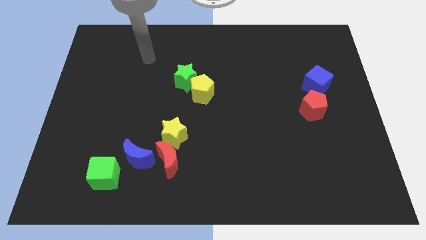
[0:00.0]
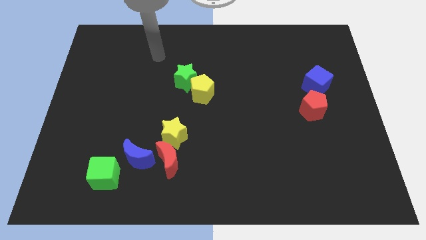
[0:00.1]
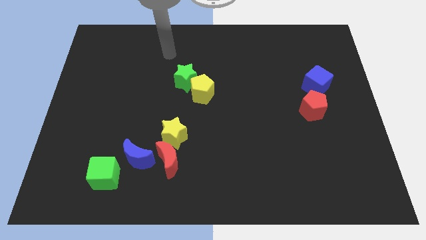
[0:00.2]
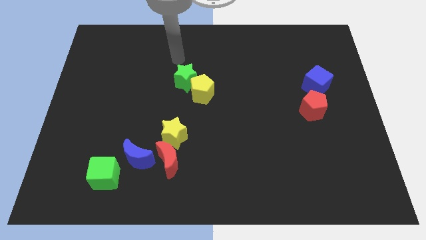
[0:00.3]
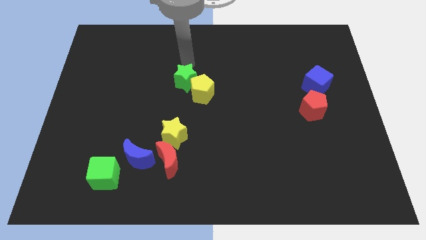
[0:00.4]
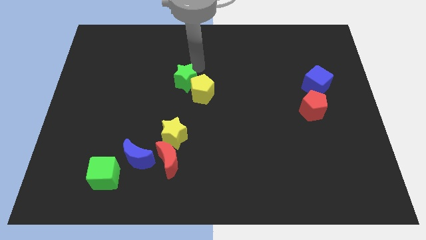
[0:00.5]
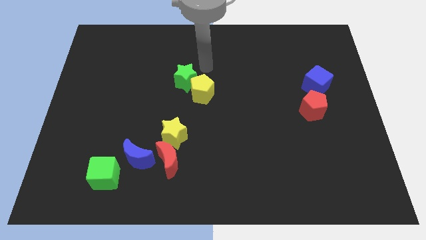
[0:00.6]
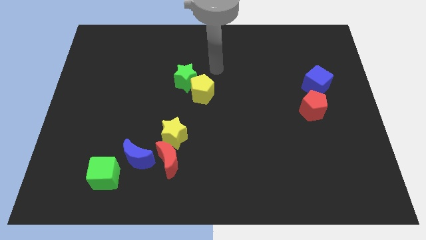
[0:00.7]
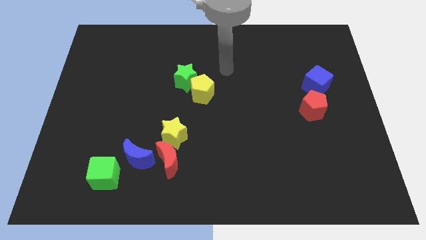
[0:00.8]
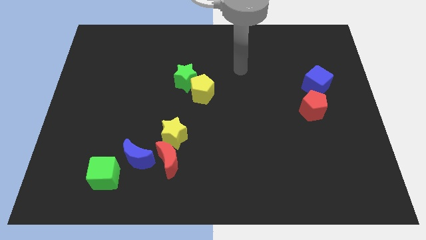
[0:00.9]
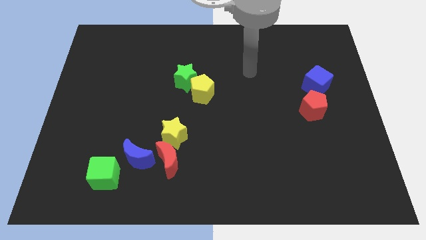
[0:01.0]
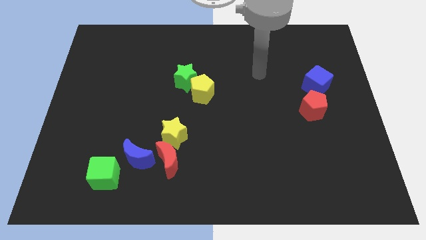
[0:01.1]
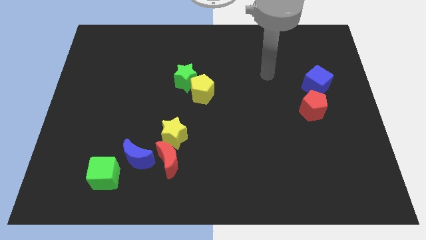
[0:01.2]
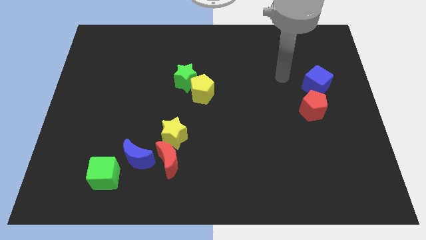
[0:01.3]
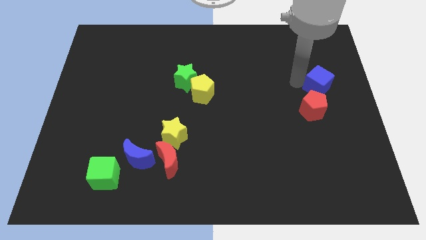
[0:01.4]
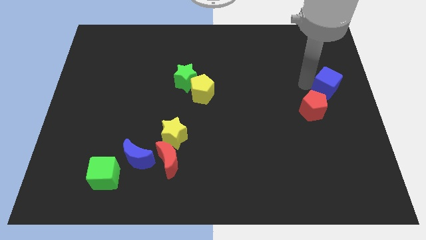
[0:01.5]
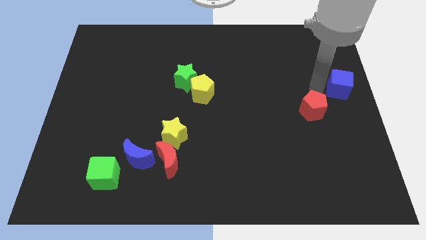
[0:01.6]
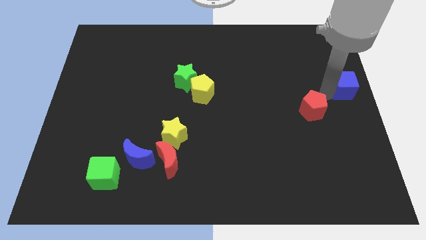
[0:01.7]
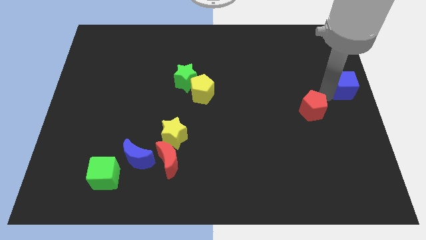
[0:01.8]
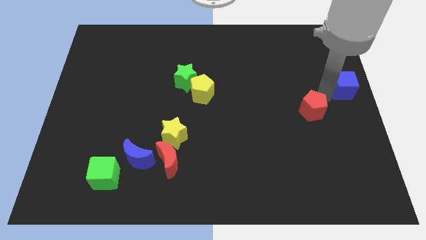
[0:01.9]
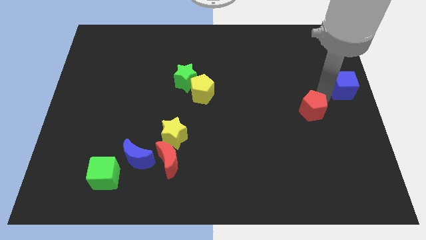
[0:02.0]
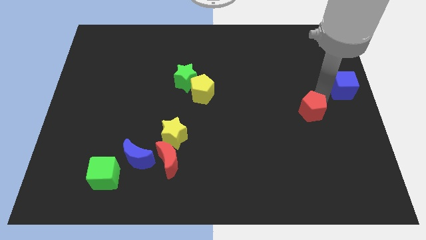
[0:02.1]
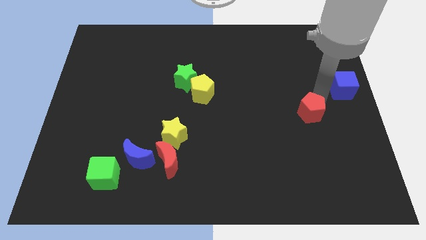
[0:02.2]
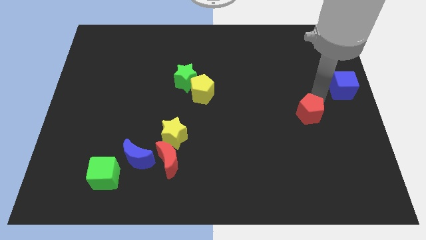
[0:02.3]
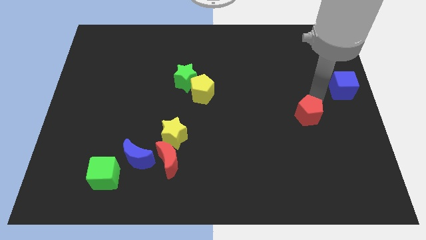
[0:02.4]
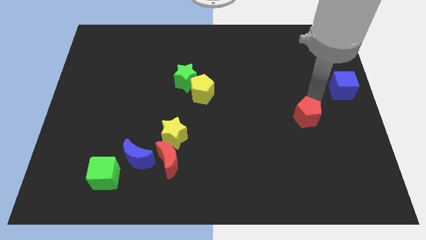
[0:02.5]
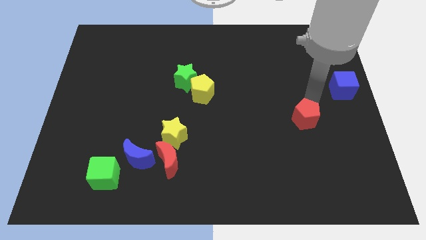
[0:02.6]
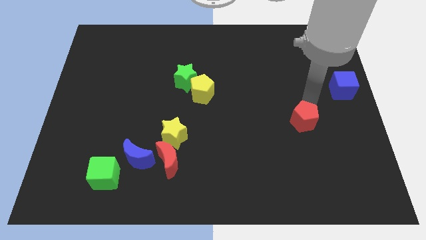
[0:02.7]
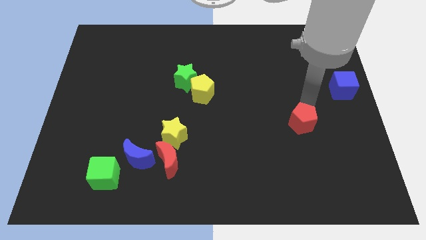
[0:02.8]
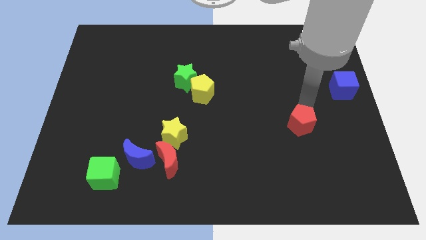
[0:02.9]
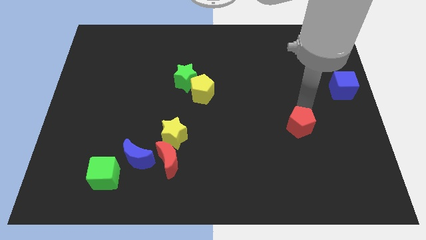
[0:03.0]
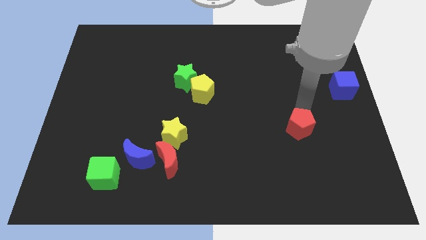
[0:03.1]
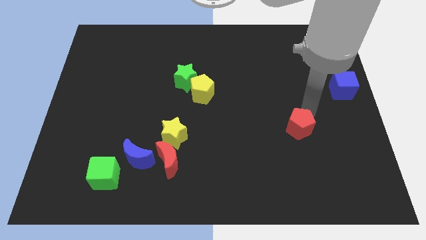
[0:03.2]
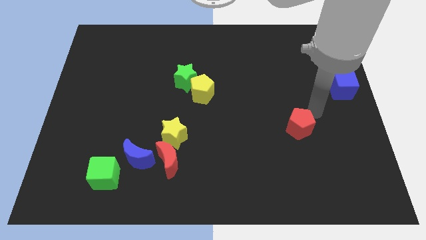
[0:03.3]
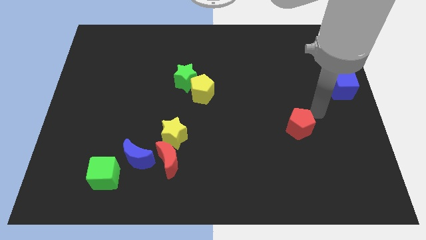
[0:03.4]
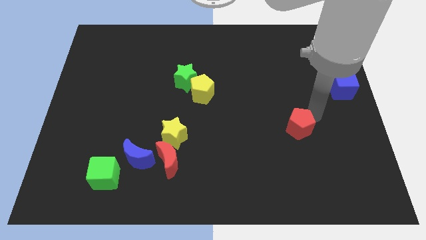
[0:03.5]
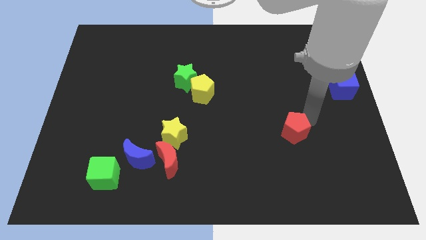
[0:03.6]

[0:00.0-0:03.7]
push the red pentagon diagonally downwards and left a little bit

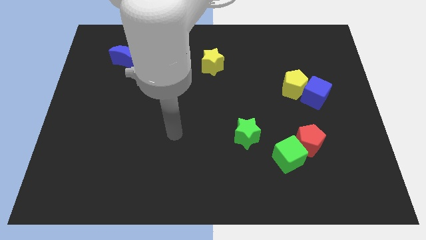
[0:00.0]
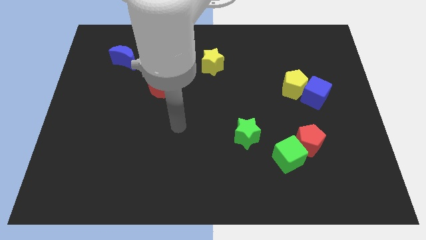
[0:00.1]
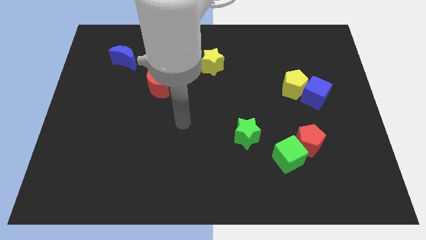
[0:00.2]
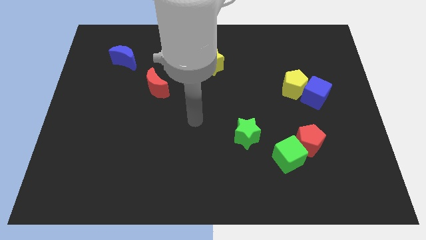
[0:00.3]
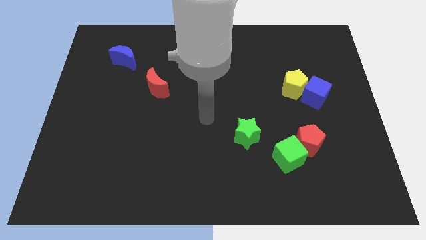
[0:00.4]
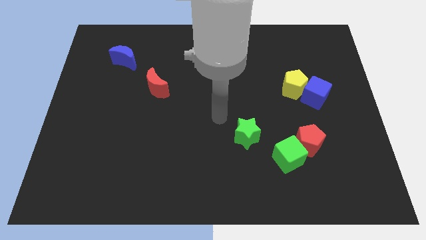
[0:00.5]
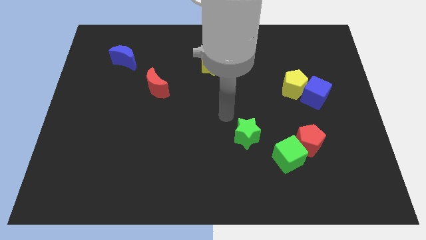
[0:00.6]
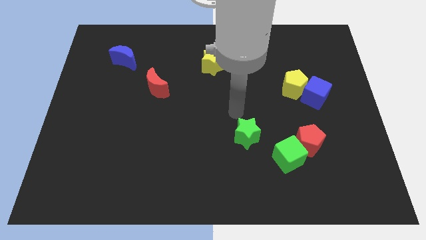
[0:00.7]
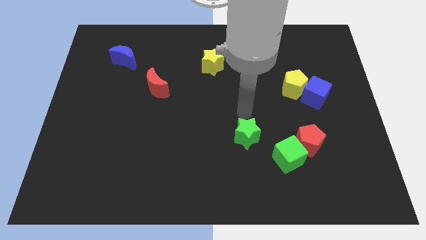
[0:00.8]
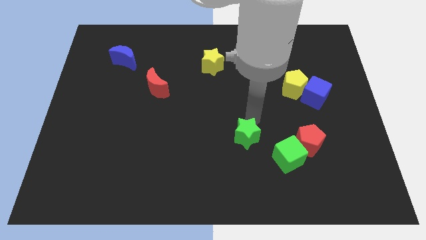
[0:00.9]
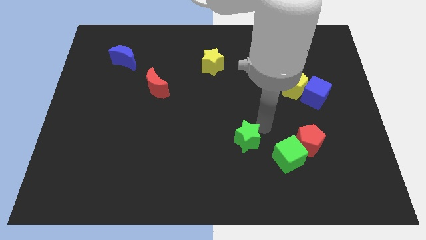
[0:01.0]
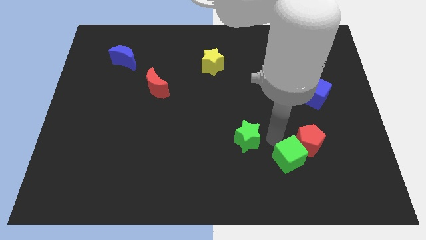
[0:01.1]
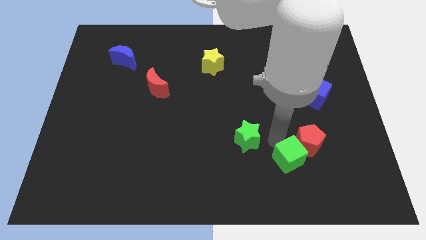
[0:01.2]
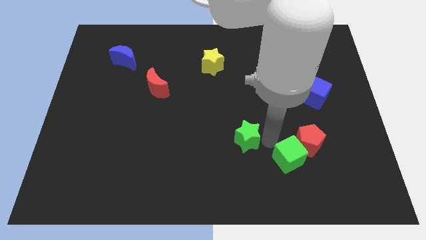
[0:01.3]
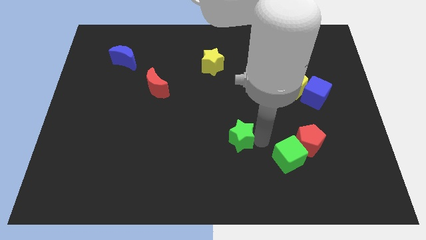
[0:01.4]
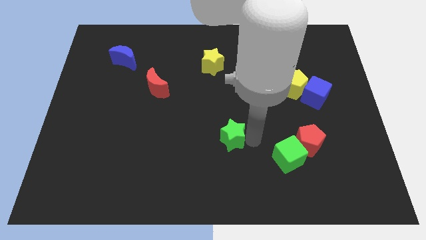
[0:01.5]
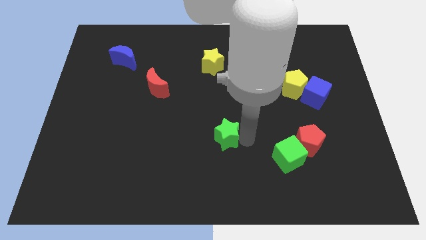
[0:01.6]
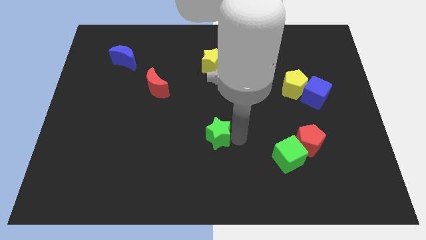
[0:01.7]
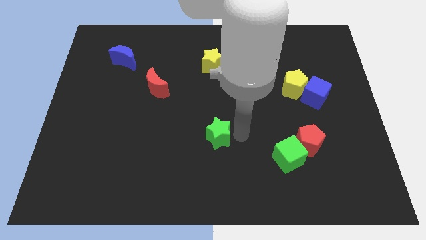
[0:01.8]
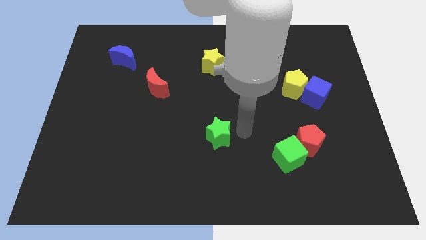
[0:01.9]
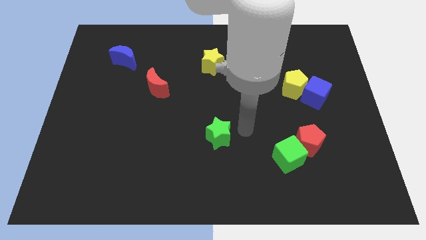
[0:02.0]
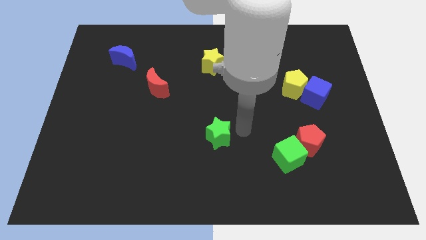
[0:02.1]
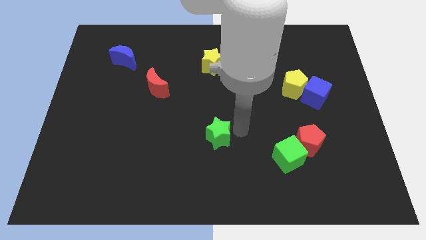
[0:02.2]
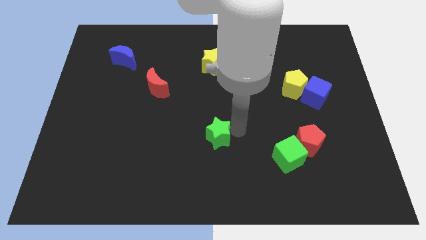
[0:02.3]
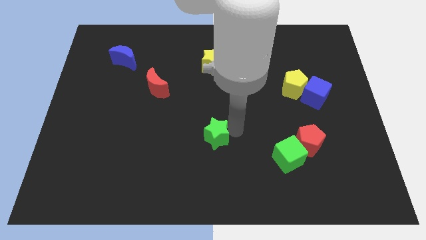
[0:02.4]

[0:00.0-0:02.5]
slightly push the green star left

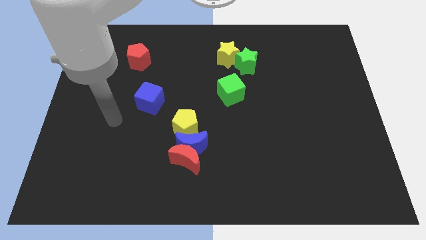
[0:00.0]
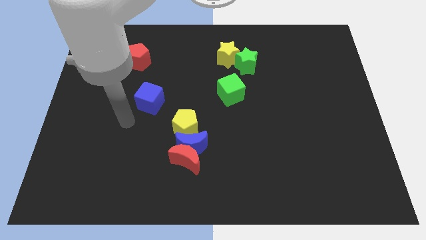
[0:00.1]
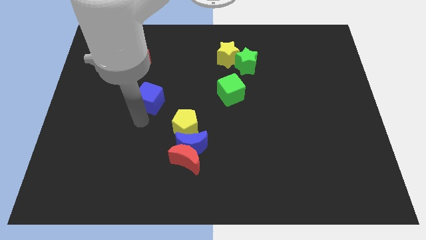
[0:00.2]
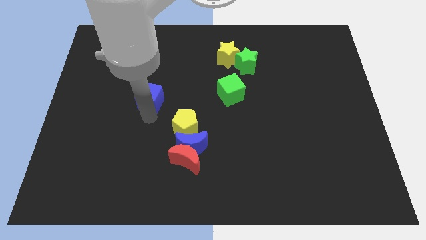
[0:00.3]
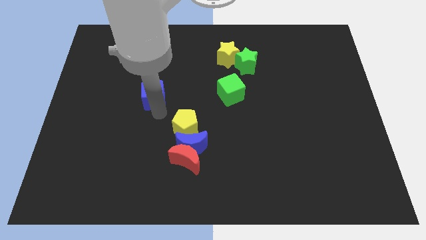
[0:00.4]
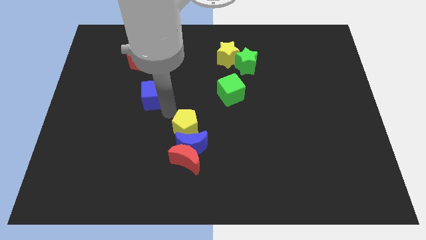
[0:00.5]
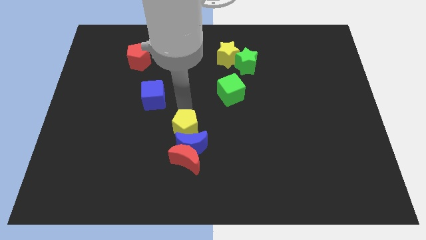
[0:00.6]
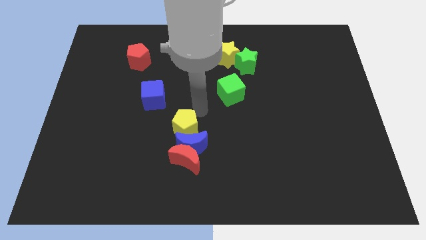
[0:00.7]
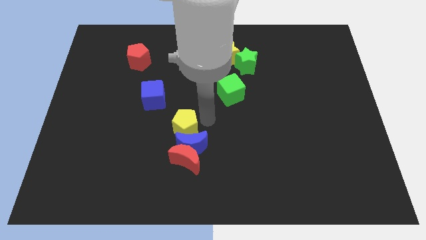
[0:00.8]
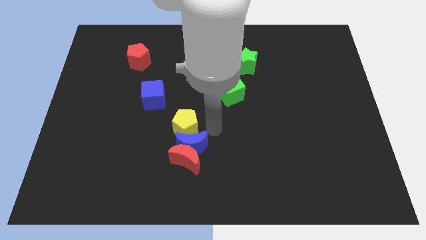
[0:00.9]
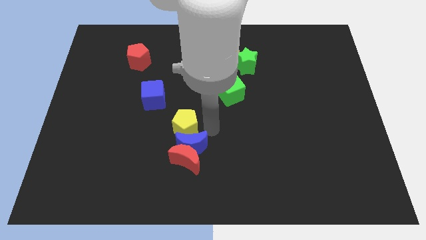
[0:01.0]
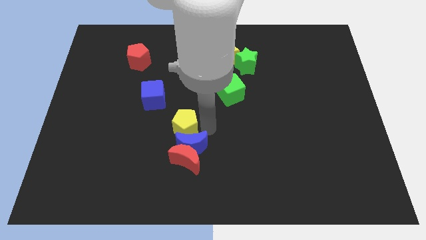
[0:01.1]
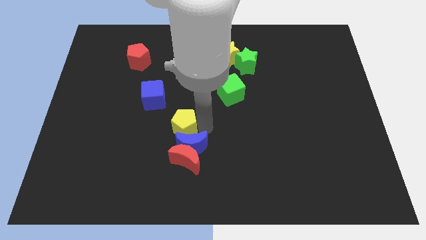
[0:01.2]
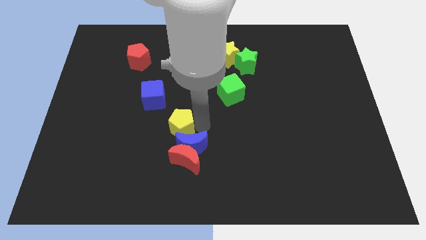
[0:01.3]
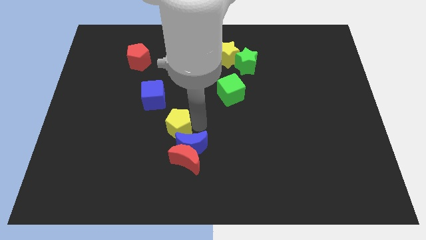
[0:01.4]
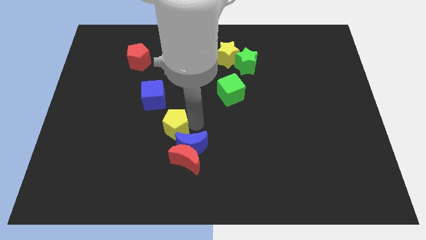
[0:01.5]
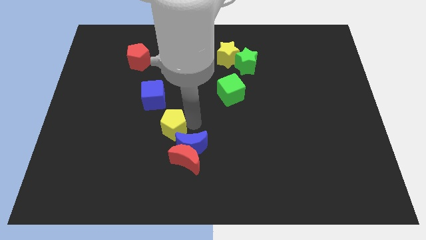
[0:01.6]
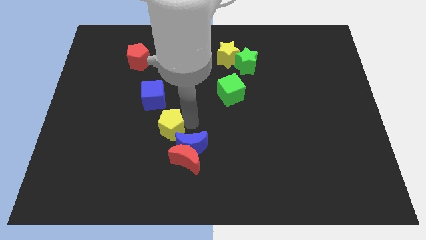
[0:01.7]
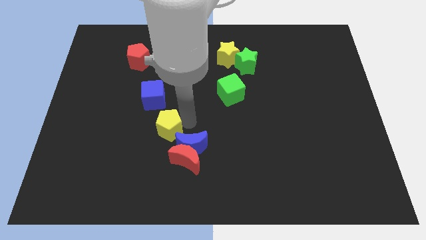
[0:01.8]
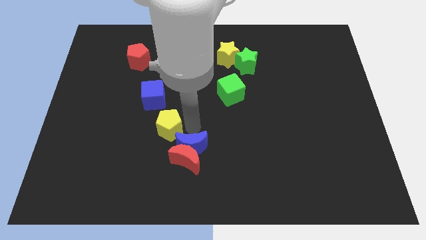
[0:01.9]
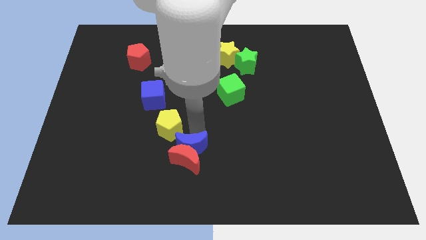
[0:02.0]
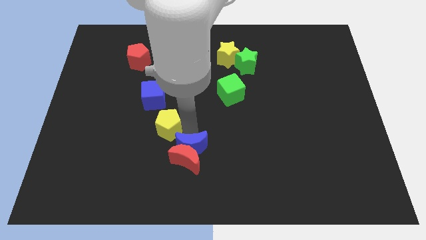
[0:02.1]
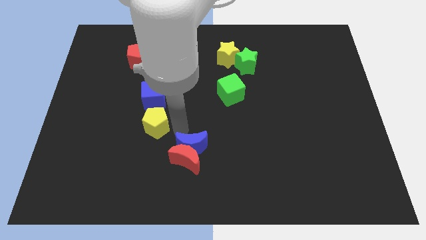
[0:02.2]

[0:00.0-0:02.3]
slide the yellow pentagon a little left

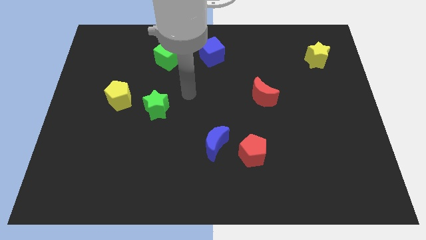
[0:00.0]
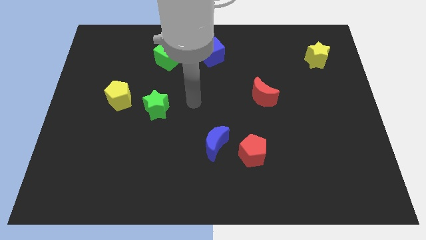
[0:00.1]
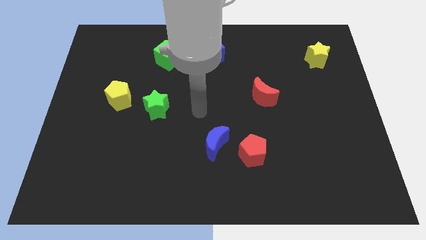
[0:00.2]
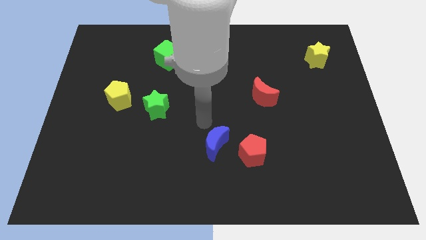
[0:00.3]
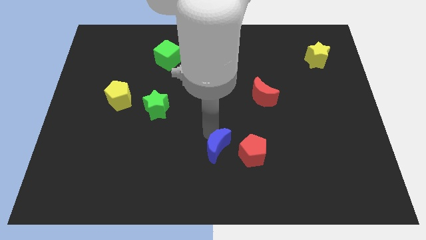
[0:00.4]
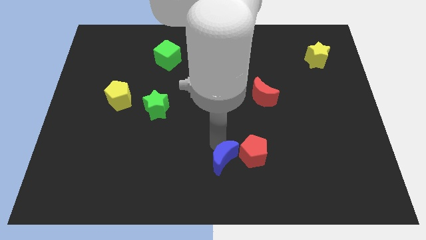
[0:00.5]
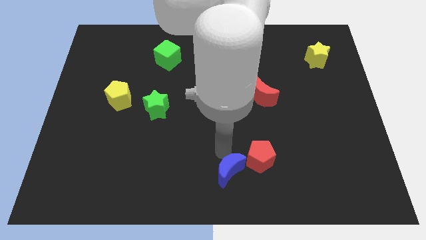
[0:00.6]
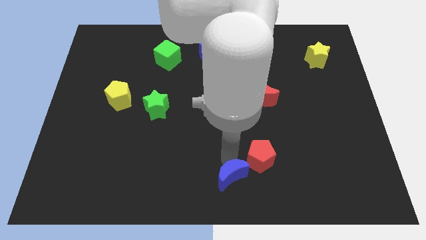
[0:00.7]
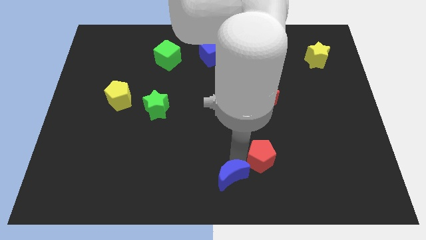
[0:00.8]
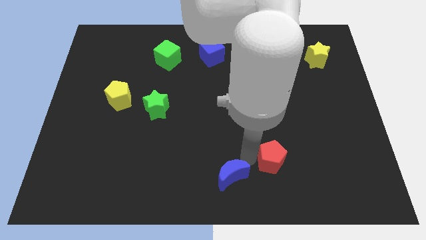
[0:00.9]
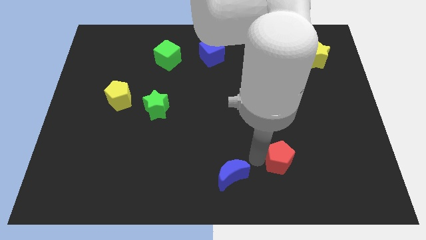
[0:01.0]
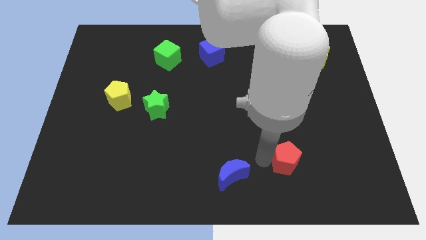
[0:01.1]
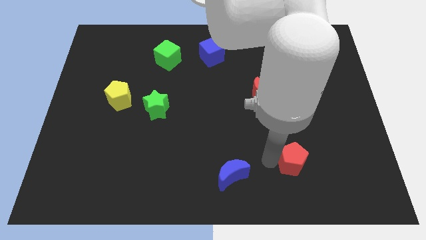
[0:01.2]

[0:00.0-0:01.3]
move the red pentagon a bit to the right
